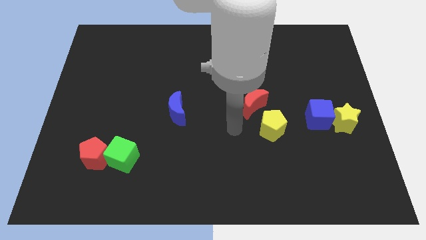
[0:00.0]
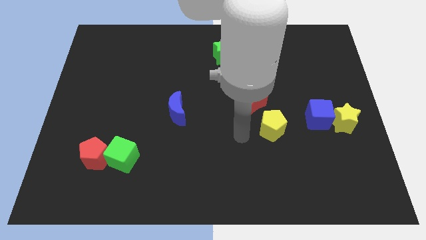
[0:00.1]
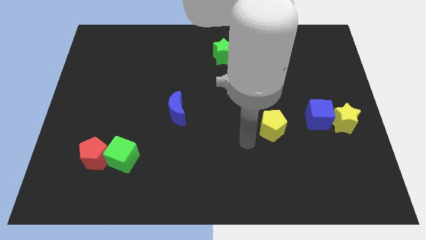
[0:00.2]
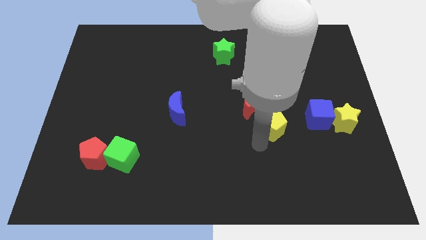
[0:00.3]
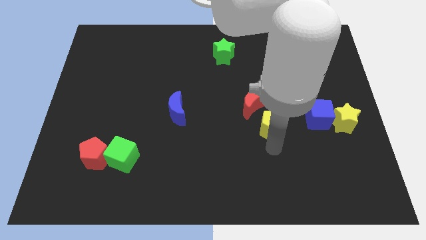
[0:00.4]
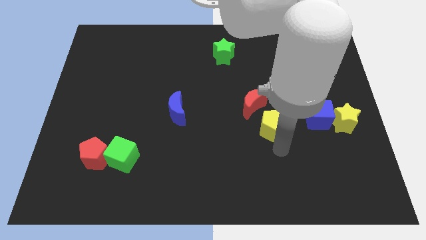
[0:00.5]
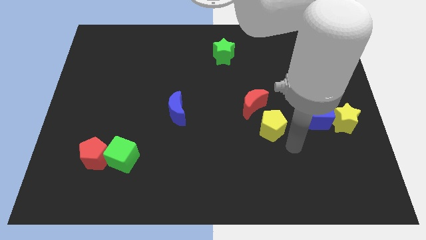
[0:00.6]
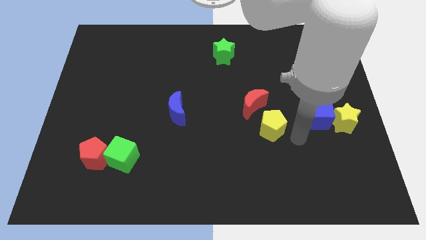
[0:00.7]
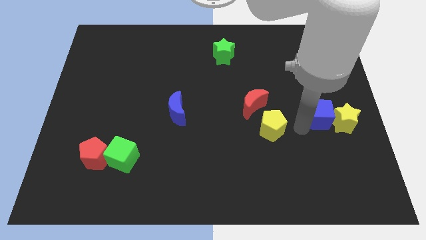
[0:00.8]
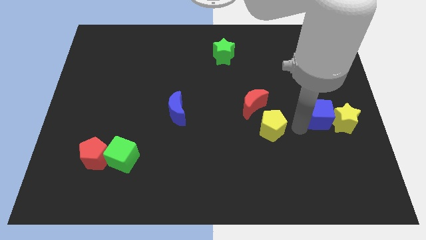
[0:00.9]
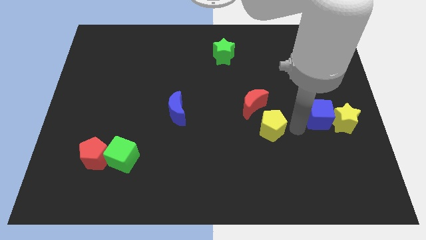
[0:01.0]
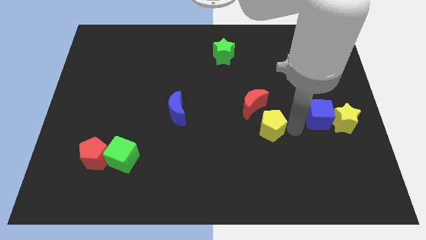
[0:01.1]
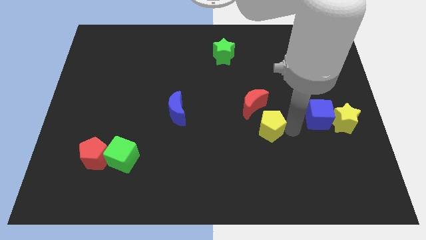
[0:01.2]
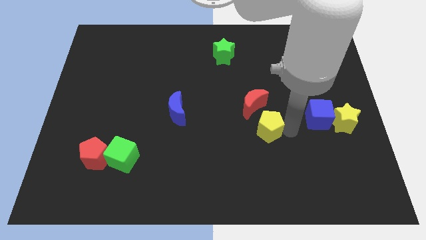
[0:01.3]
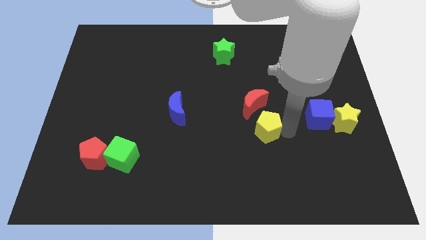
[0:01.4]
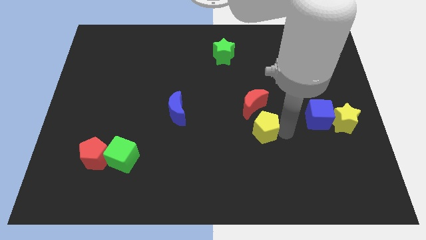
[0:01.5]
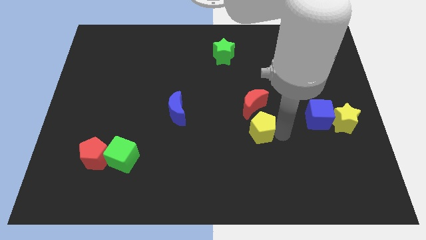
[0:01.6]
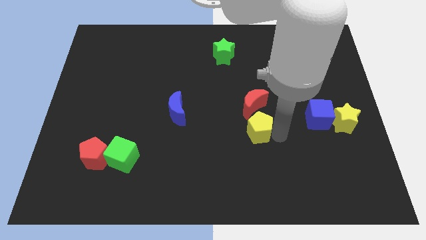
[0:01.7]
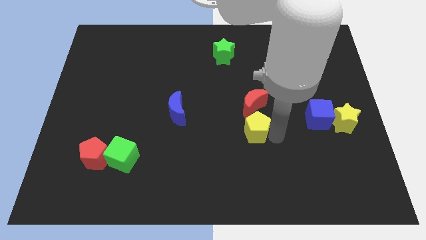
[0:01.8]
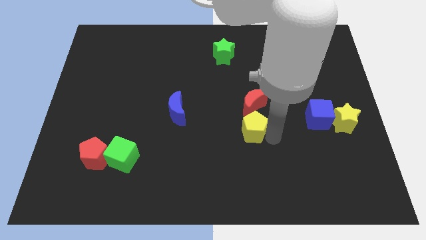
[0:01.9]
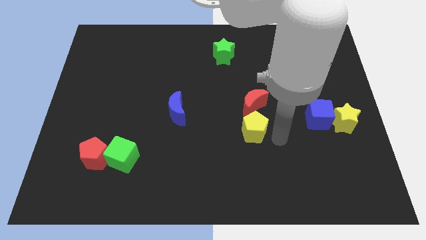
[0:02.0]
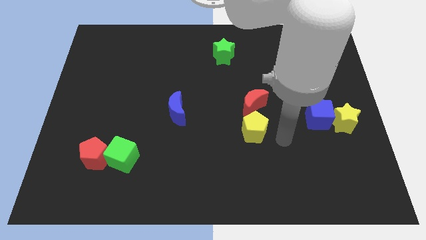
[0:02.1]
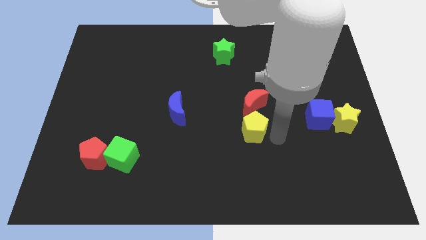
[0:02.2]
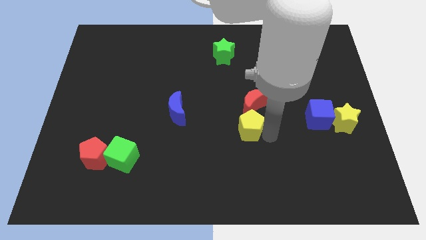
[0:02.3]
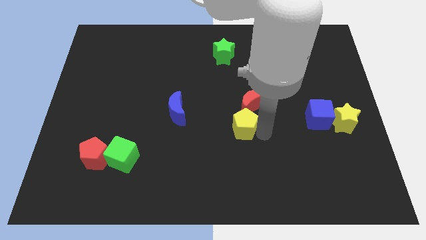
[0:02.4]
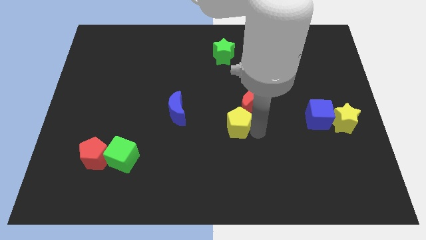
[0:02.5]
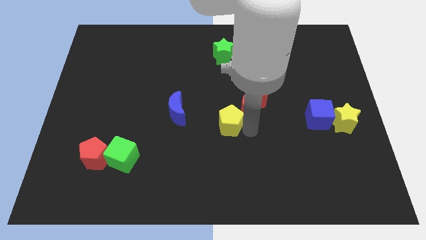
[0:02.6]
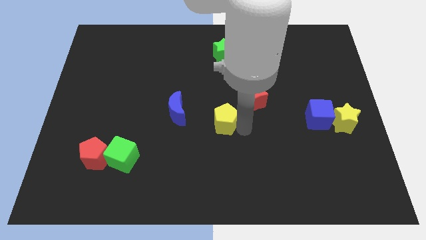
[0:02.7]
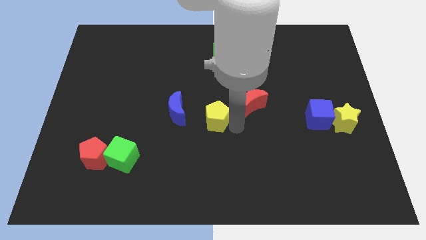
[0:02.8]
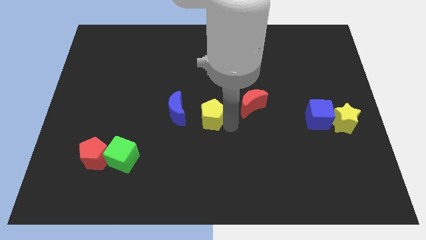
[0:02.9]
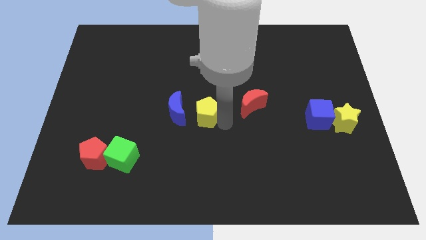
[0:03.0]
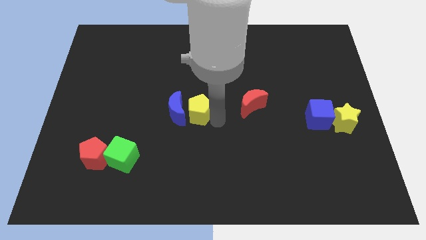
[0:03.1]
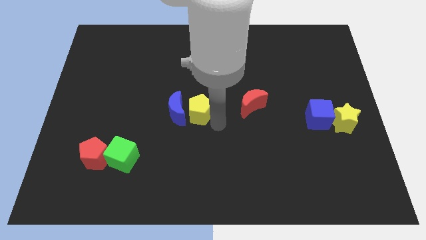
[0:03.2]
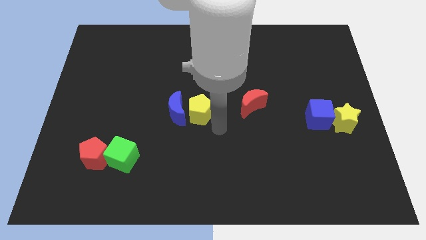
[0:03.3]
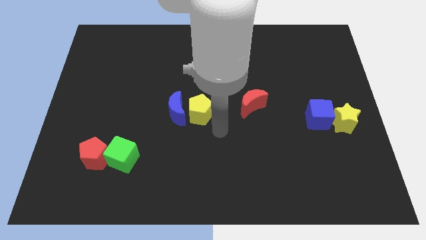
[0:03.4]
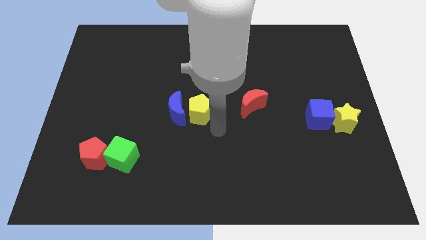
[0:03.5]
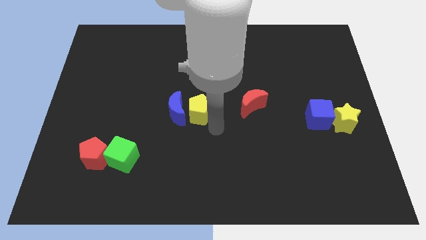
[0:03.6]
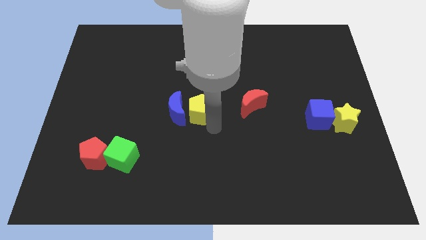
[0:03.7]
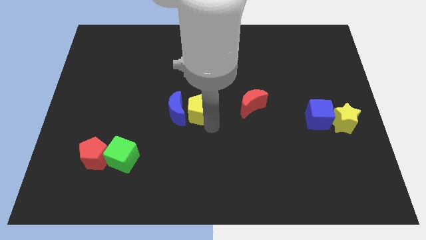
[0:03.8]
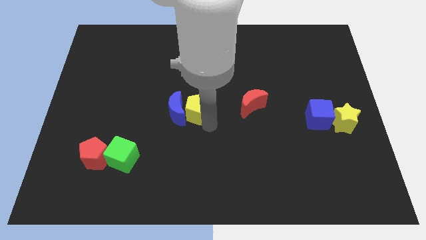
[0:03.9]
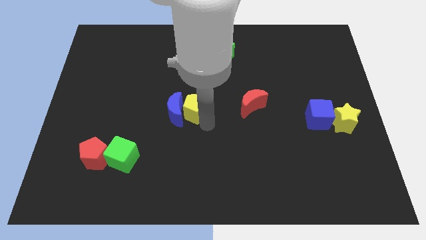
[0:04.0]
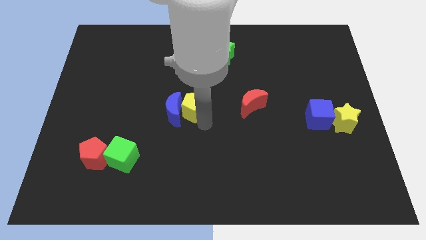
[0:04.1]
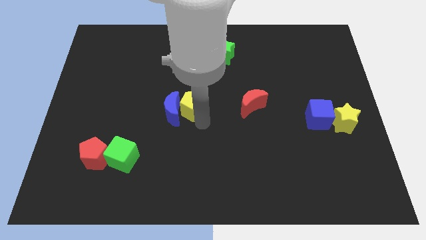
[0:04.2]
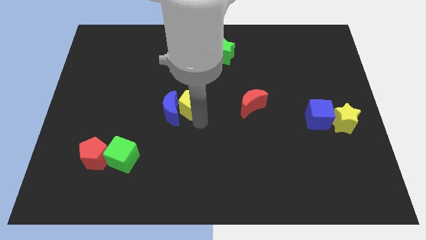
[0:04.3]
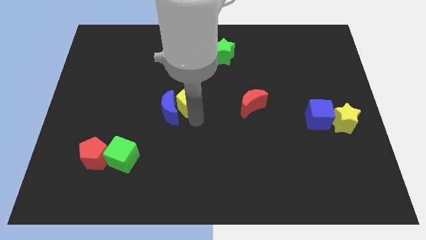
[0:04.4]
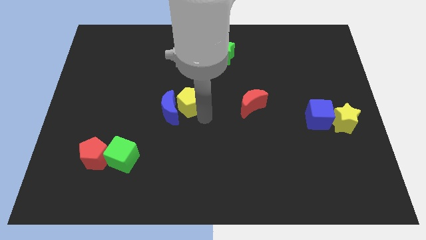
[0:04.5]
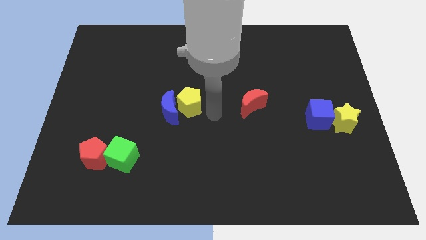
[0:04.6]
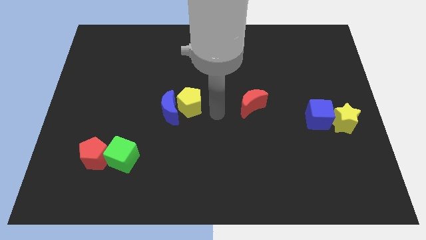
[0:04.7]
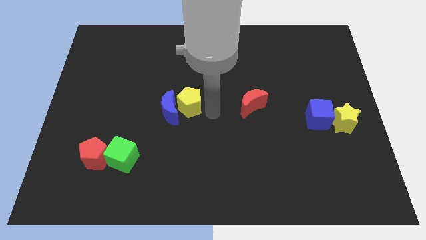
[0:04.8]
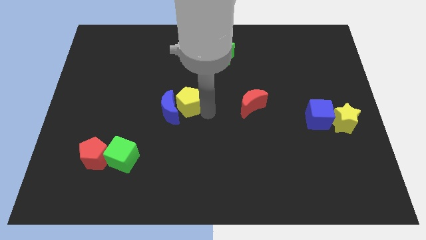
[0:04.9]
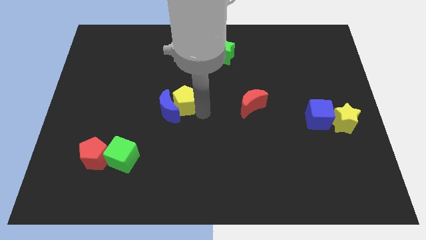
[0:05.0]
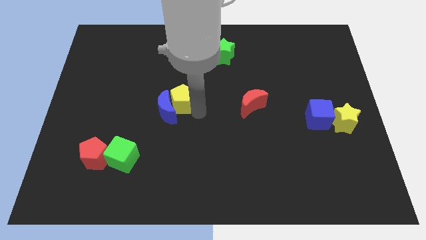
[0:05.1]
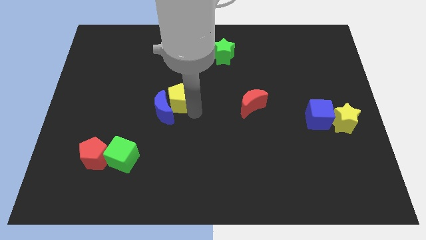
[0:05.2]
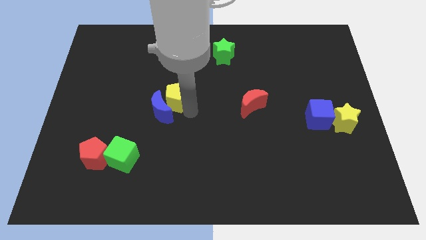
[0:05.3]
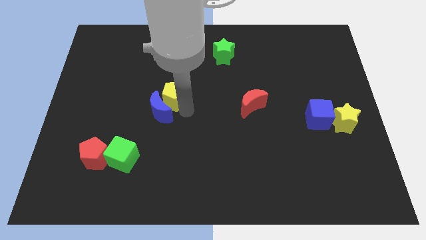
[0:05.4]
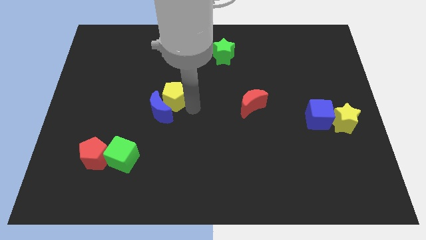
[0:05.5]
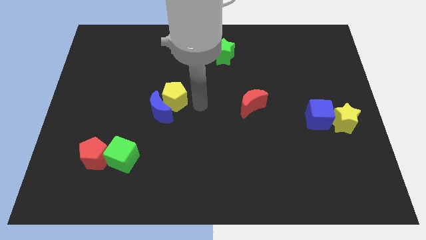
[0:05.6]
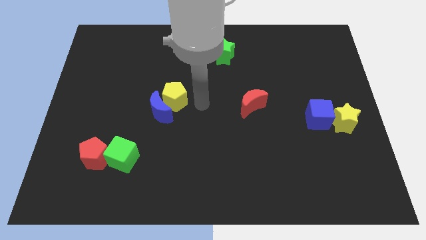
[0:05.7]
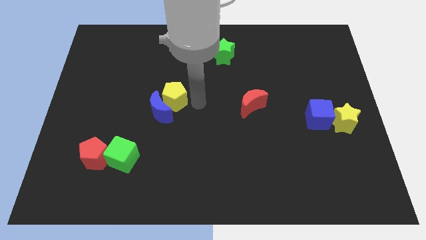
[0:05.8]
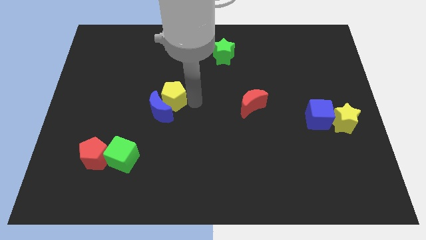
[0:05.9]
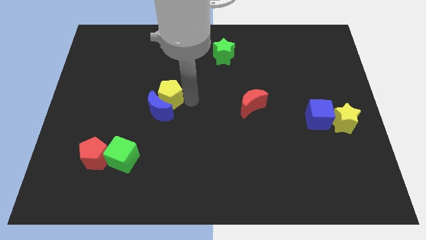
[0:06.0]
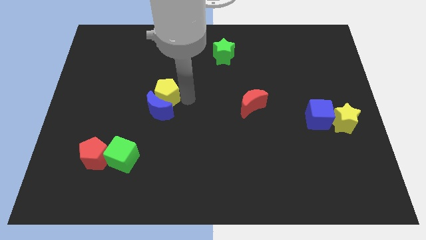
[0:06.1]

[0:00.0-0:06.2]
slide the yellow pentagon diagonally up and to the left of the blue moon
